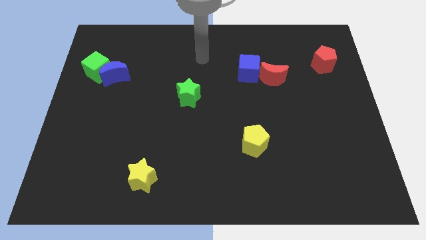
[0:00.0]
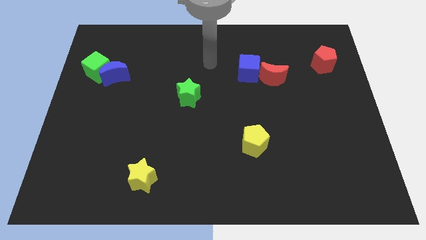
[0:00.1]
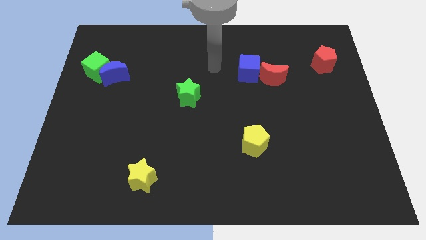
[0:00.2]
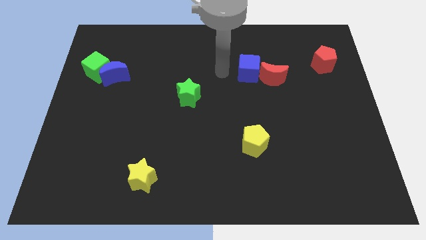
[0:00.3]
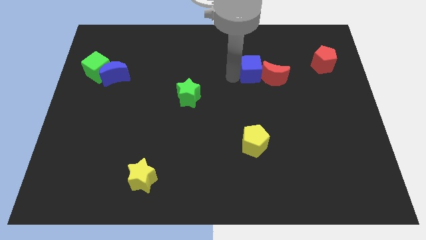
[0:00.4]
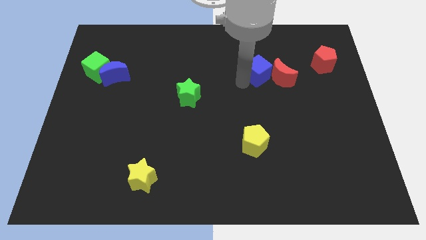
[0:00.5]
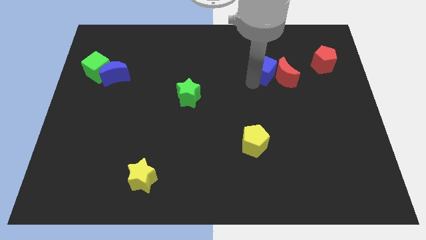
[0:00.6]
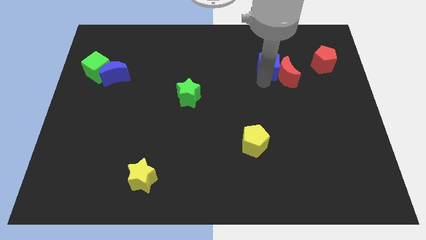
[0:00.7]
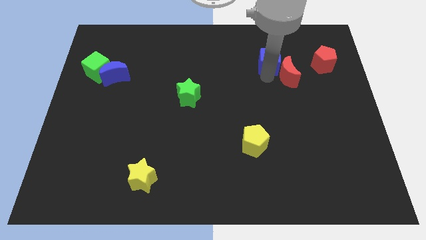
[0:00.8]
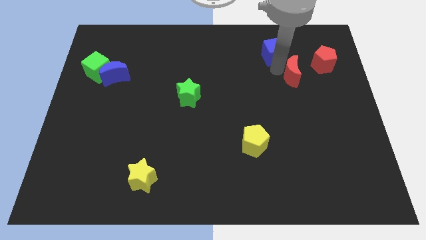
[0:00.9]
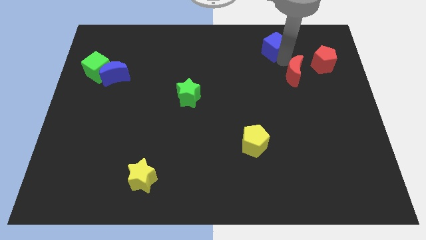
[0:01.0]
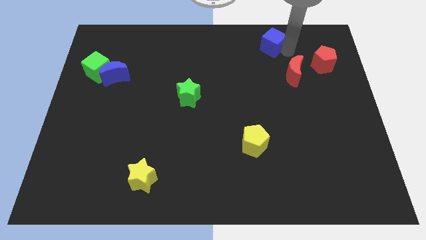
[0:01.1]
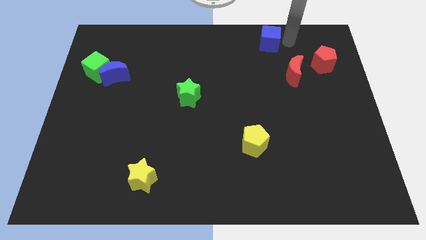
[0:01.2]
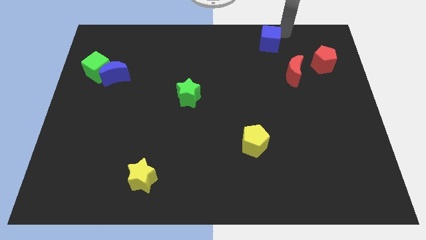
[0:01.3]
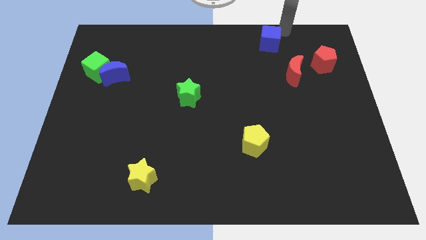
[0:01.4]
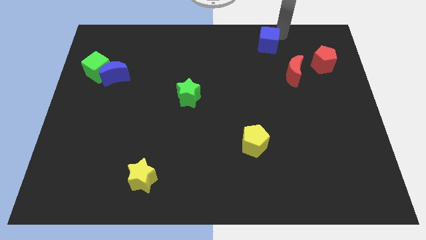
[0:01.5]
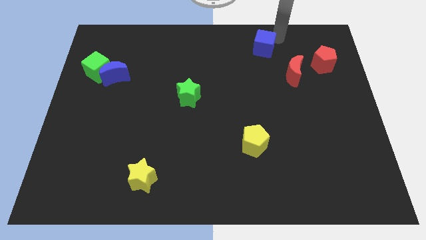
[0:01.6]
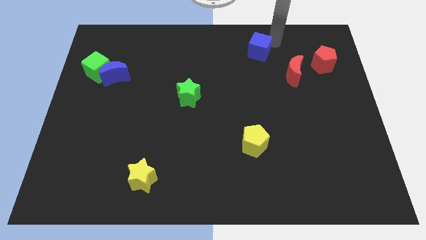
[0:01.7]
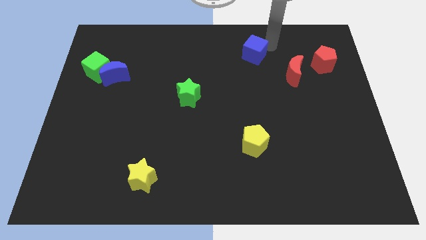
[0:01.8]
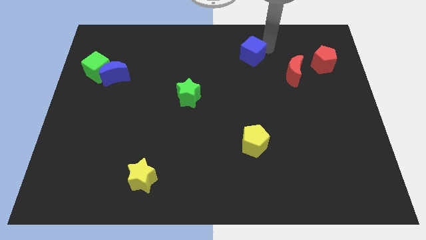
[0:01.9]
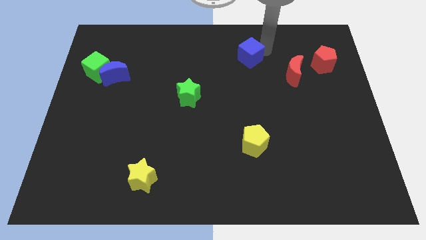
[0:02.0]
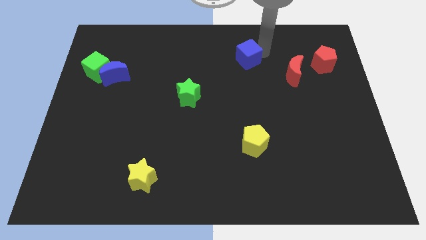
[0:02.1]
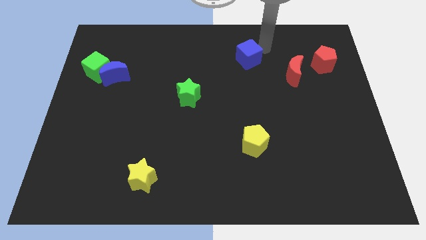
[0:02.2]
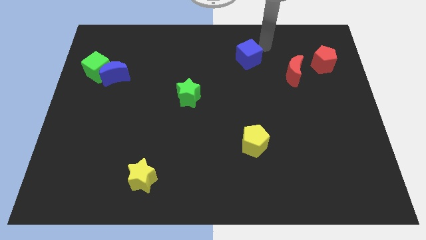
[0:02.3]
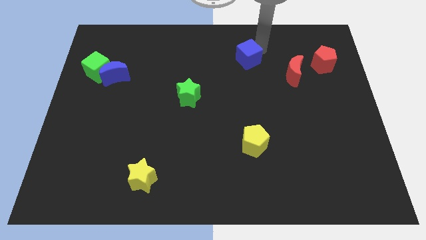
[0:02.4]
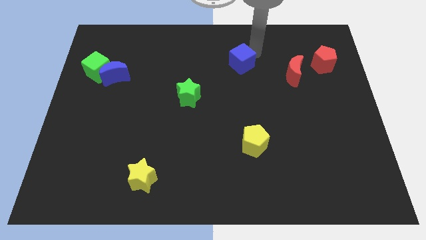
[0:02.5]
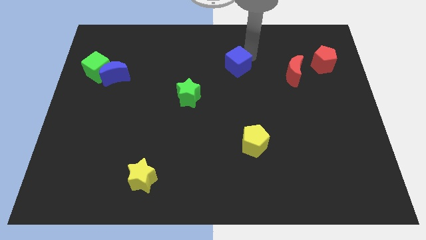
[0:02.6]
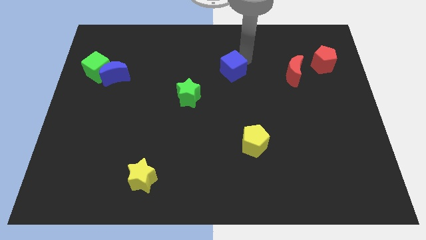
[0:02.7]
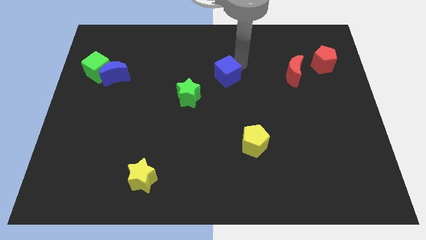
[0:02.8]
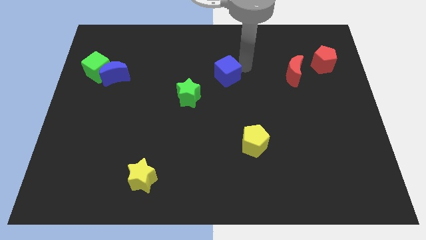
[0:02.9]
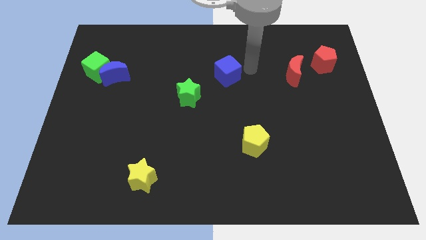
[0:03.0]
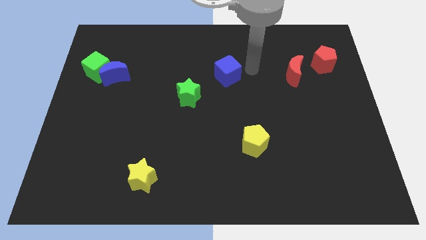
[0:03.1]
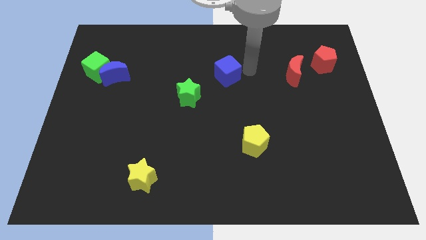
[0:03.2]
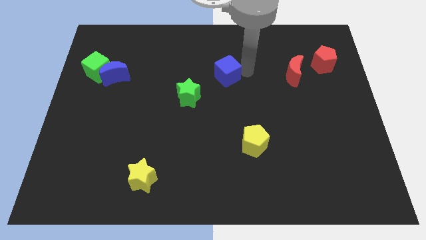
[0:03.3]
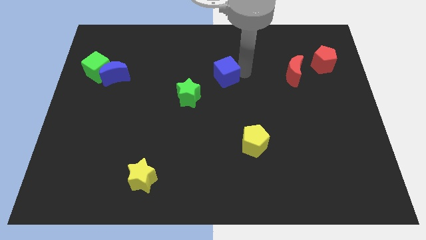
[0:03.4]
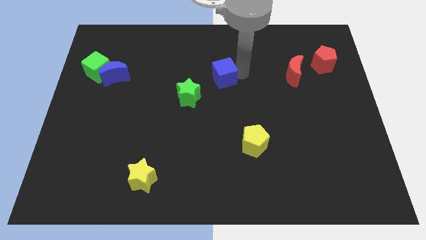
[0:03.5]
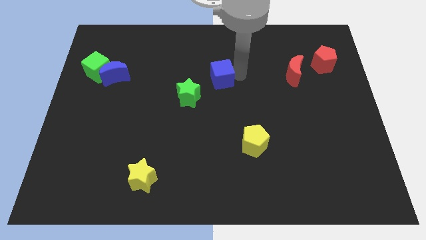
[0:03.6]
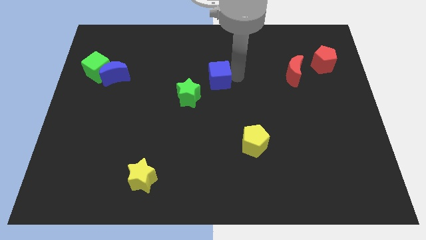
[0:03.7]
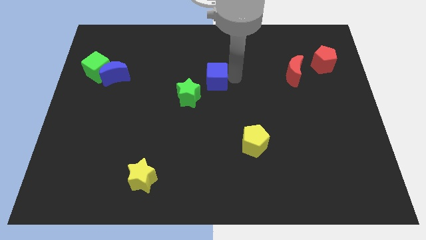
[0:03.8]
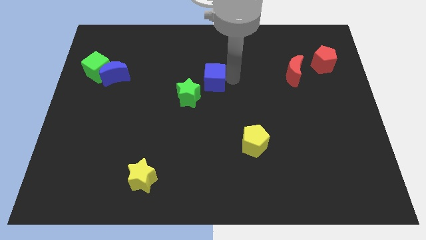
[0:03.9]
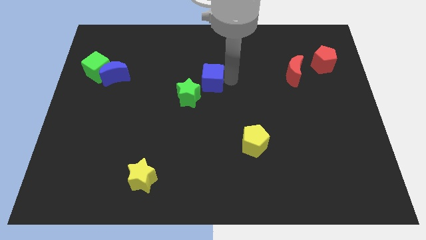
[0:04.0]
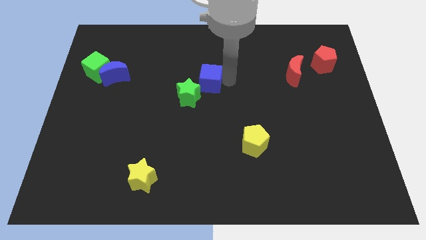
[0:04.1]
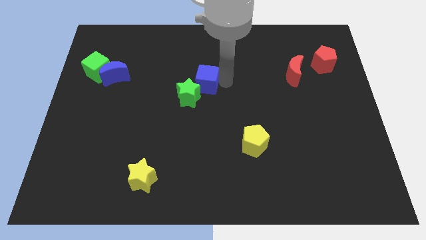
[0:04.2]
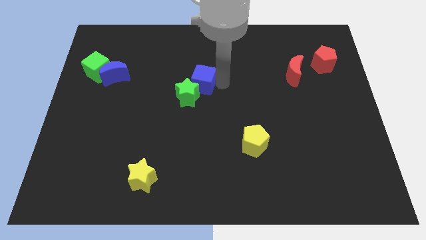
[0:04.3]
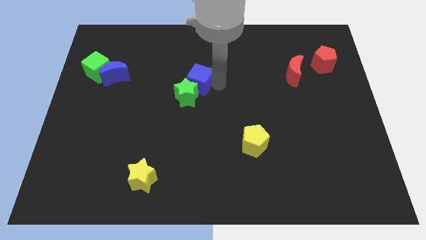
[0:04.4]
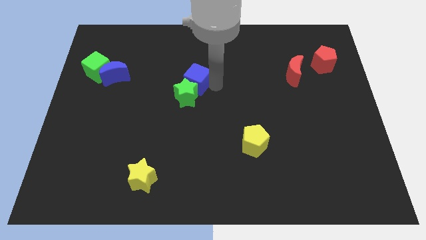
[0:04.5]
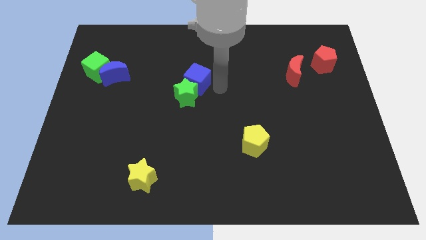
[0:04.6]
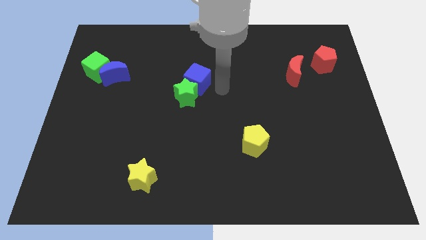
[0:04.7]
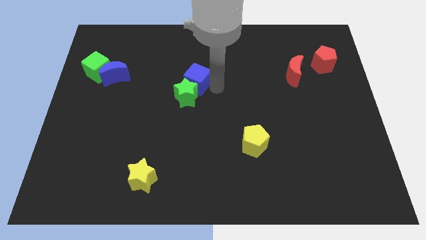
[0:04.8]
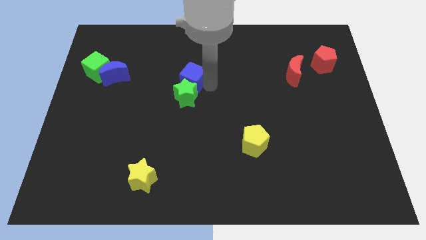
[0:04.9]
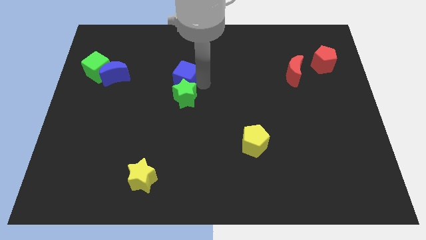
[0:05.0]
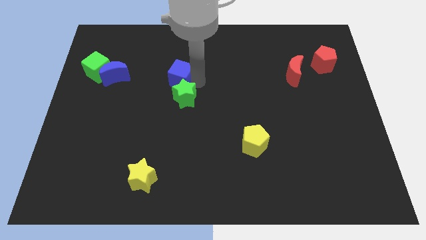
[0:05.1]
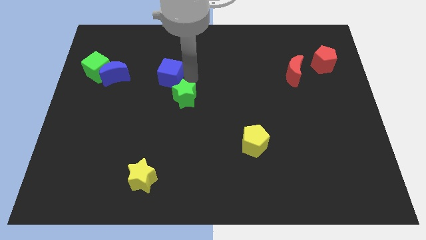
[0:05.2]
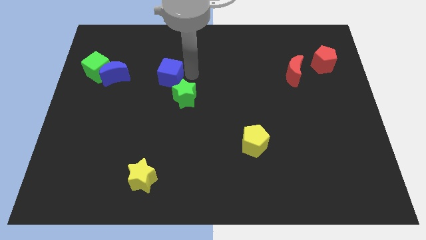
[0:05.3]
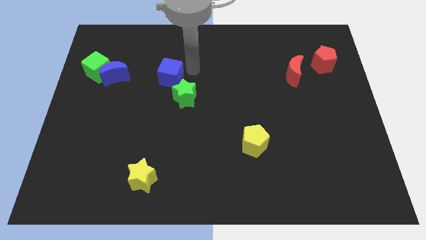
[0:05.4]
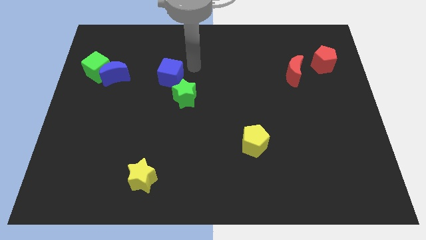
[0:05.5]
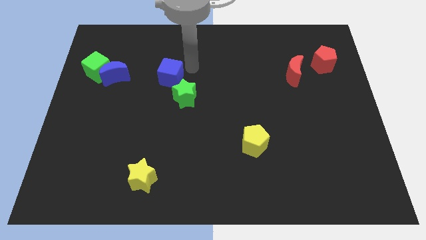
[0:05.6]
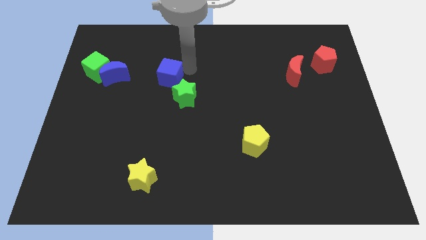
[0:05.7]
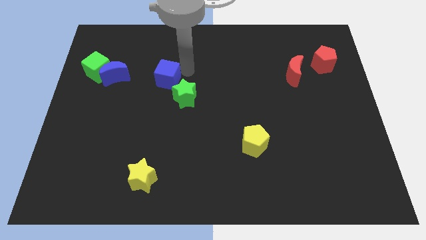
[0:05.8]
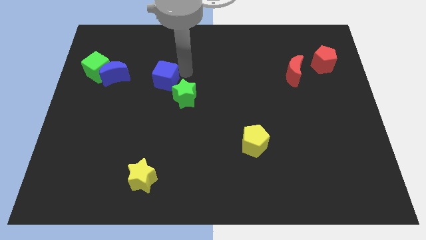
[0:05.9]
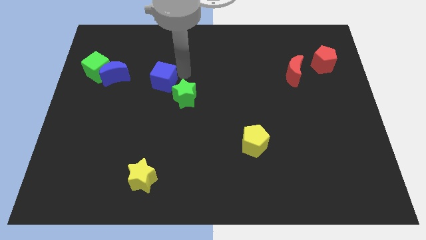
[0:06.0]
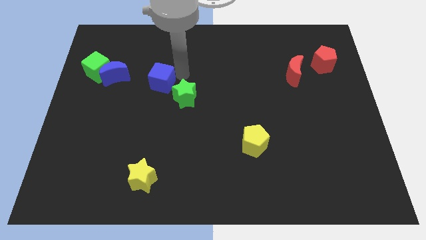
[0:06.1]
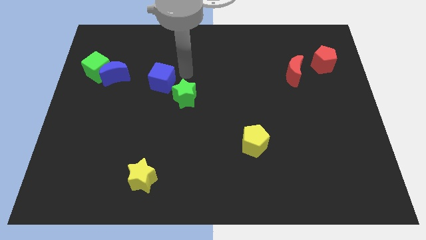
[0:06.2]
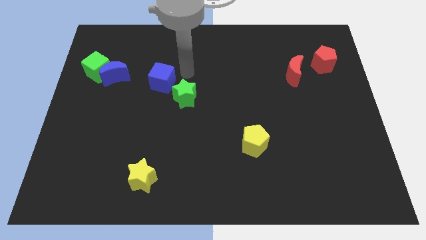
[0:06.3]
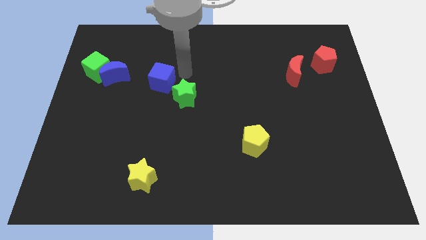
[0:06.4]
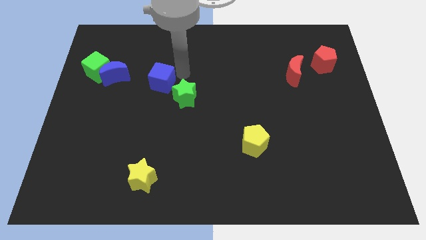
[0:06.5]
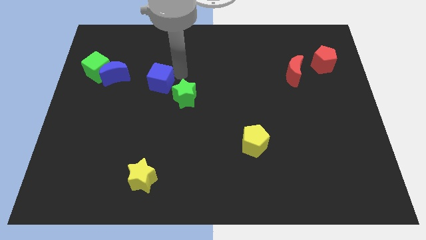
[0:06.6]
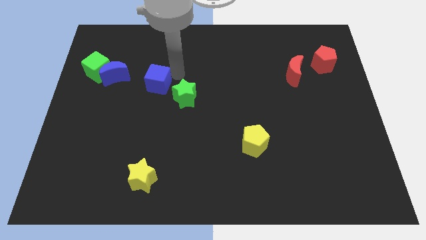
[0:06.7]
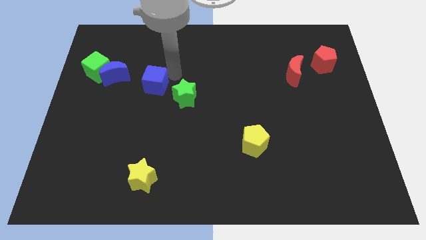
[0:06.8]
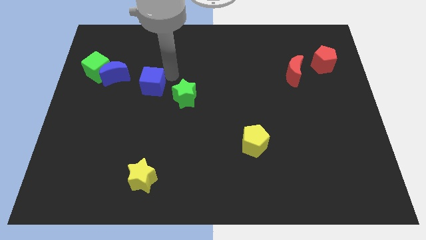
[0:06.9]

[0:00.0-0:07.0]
put the blue cube to the bottom right side of the blue moon
